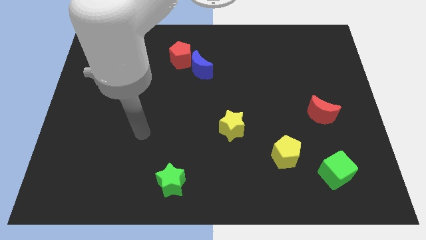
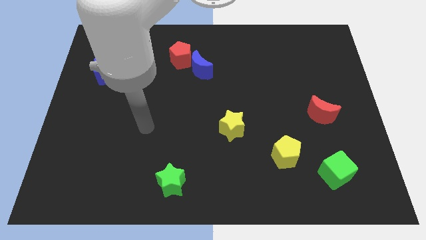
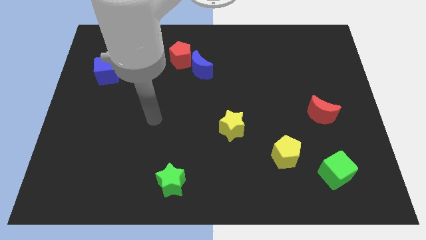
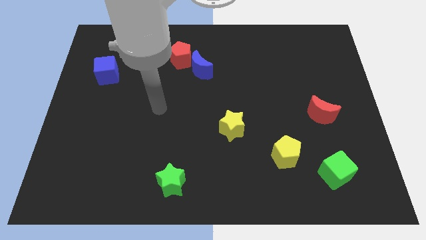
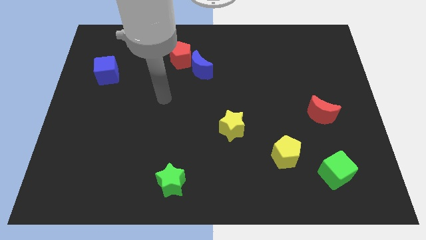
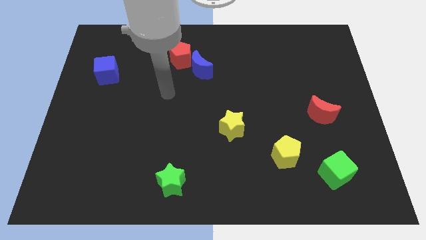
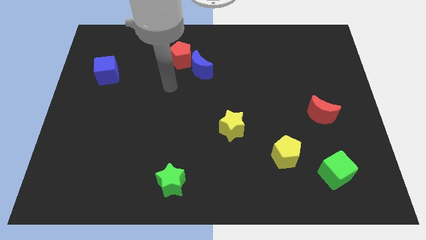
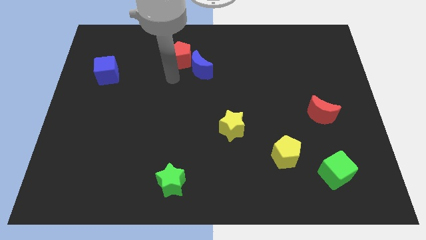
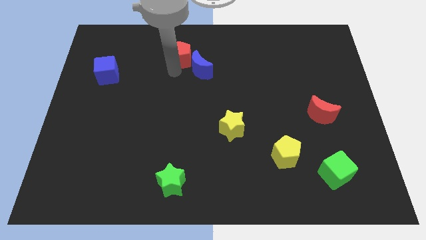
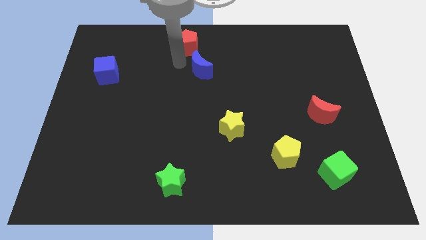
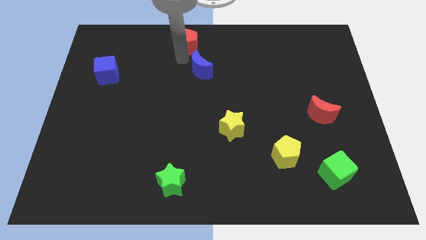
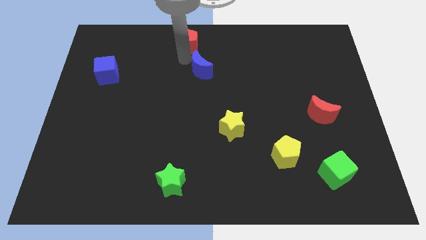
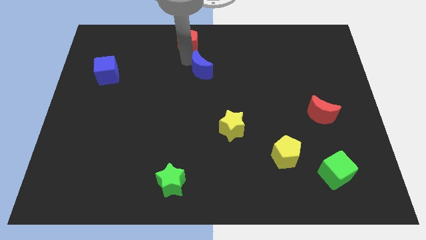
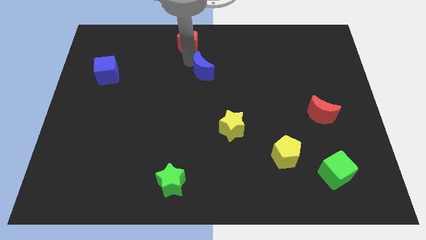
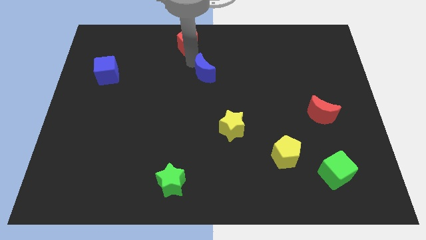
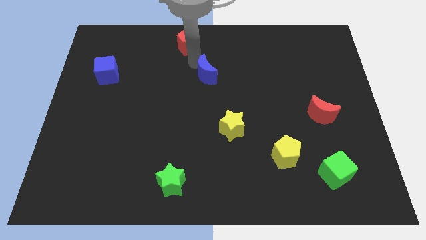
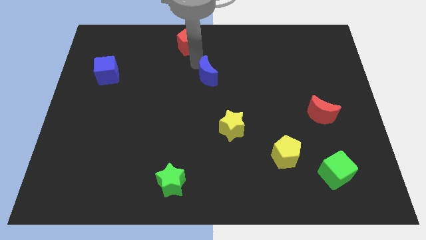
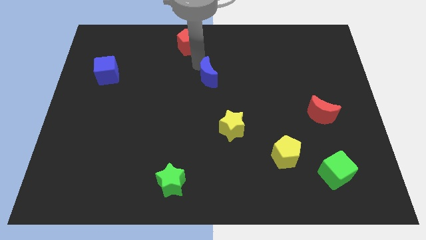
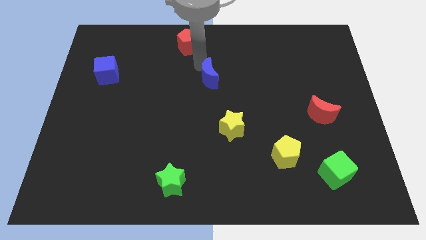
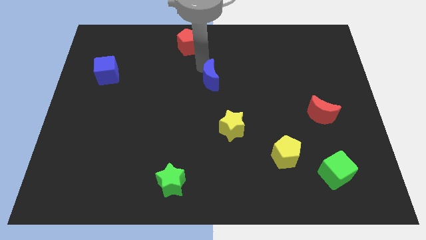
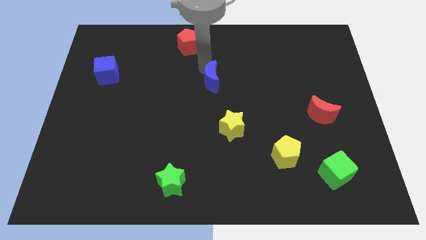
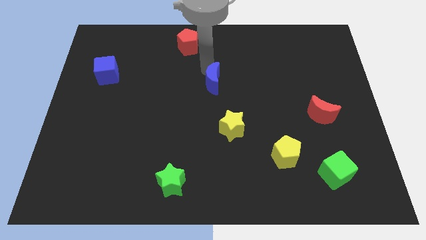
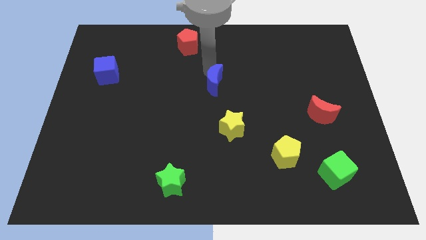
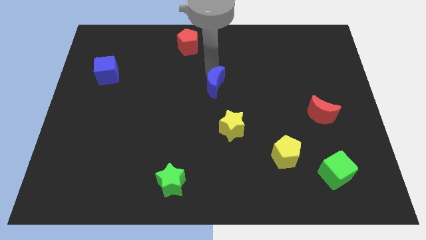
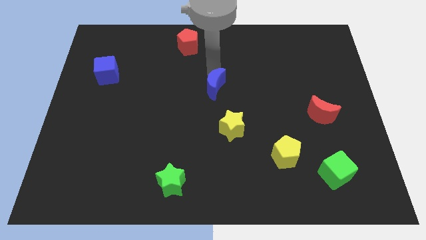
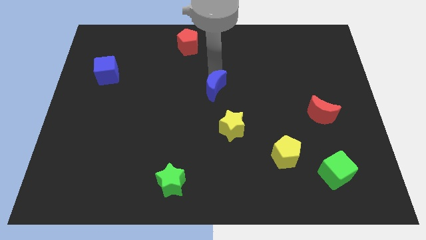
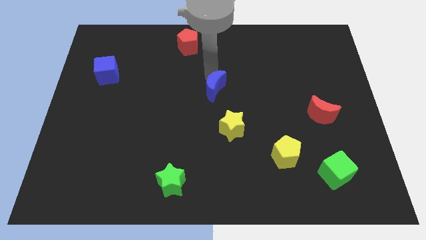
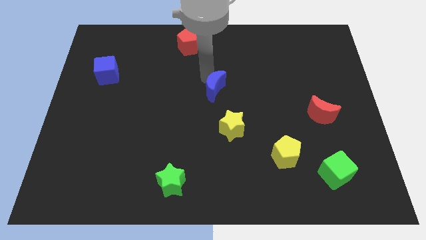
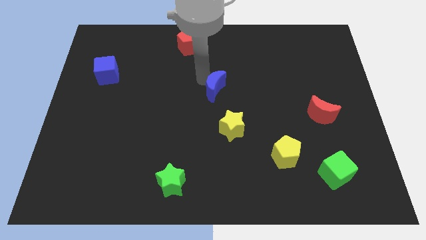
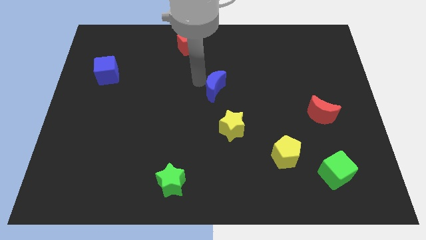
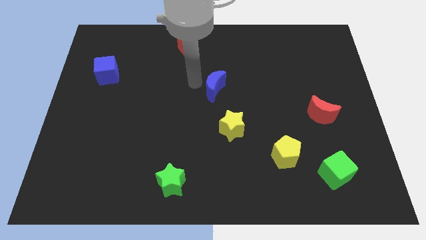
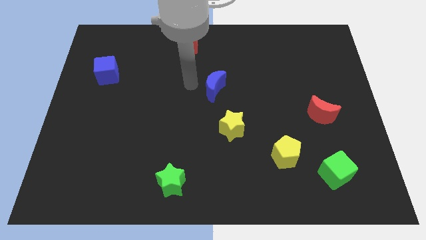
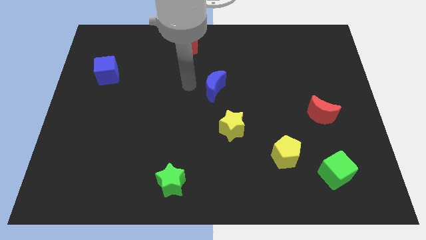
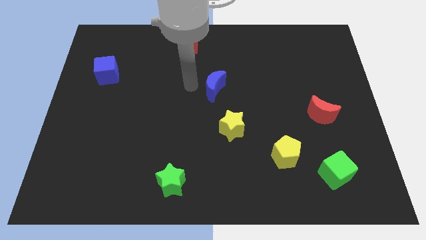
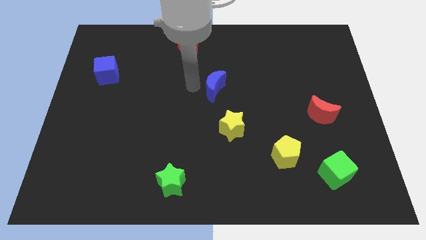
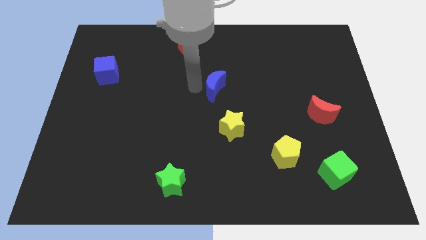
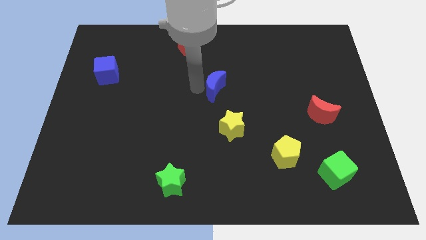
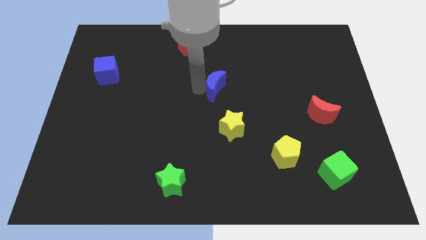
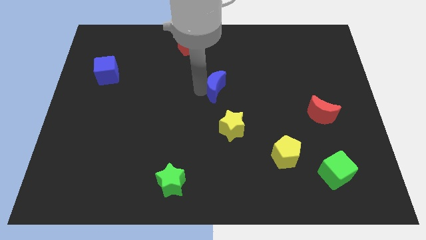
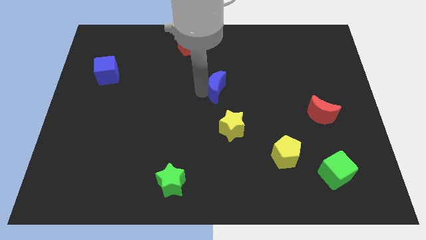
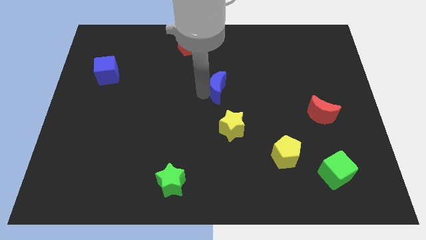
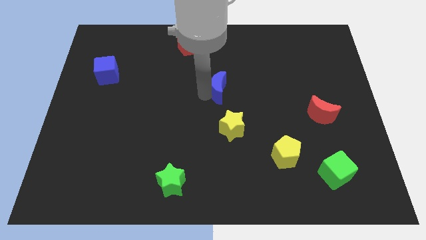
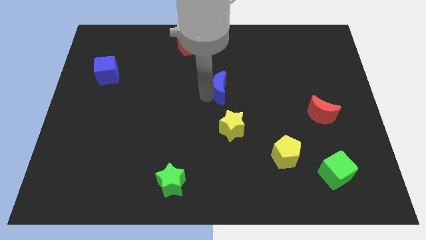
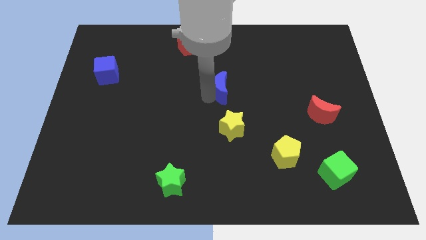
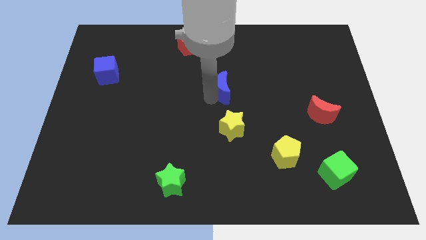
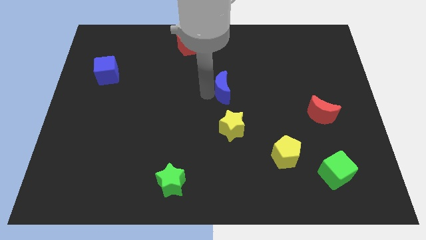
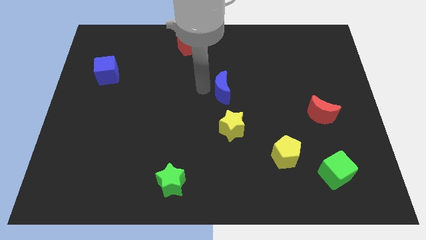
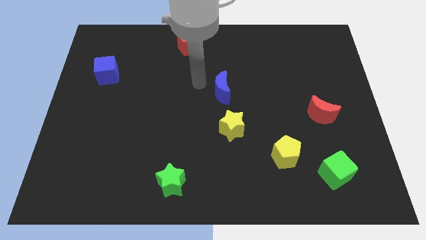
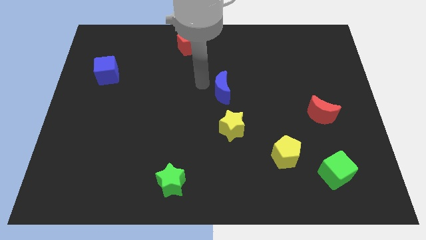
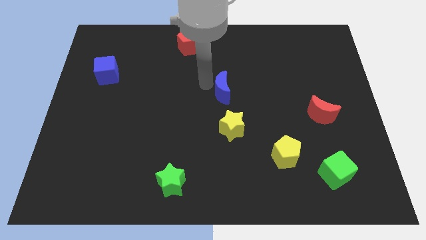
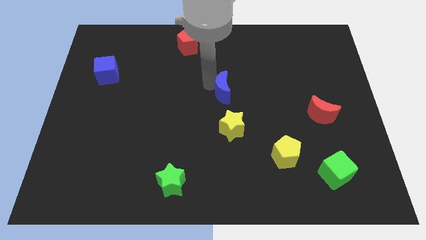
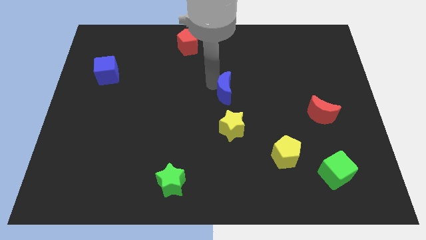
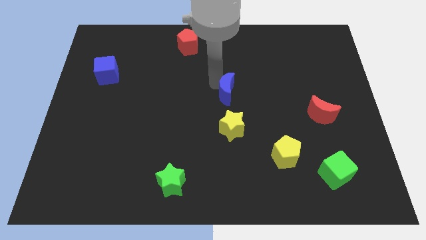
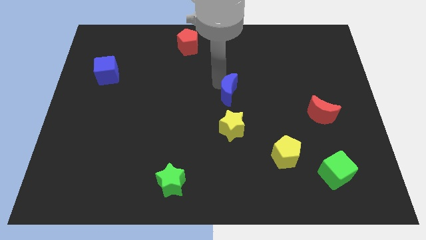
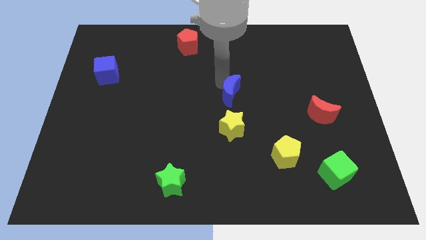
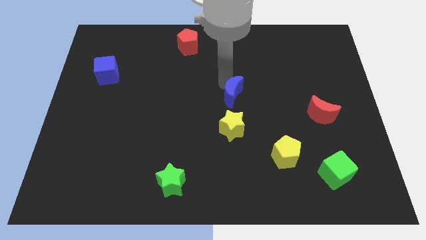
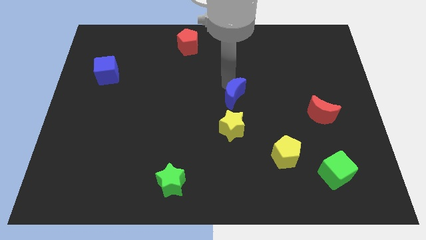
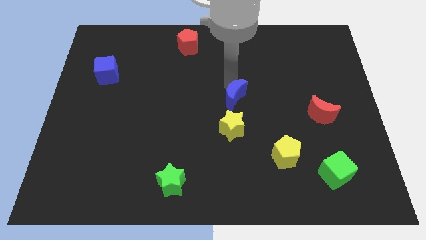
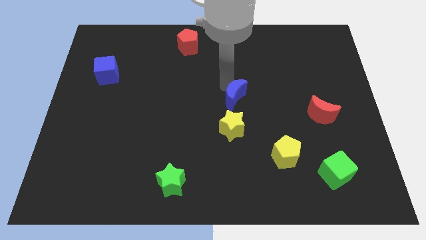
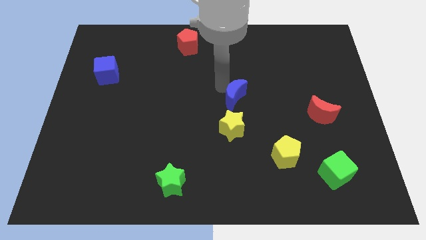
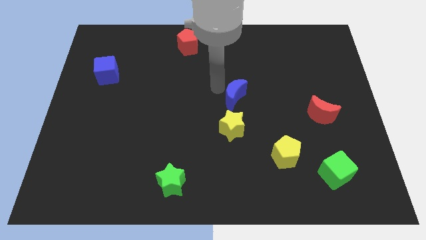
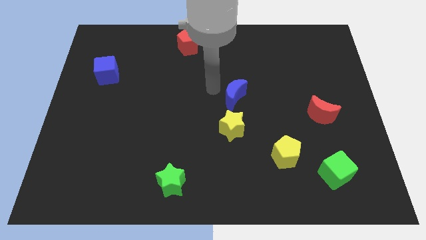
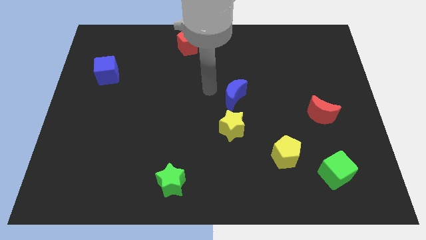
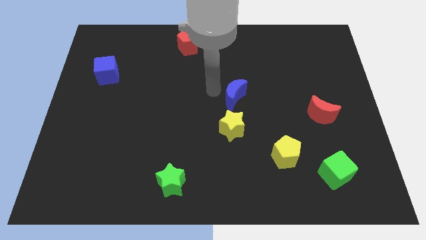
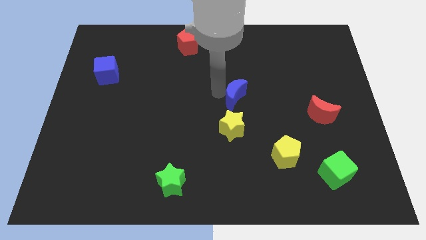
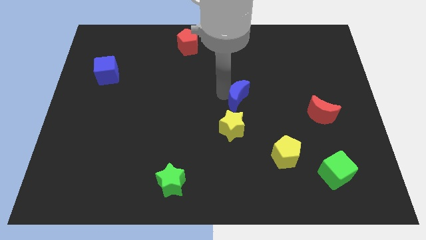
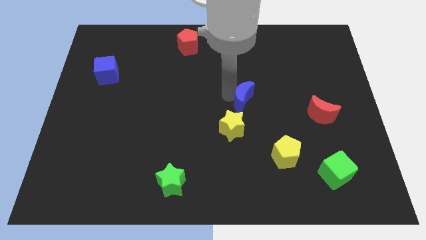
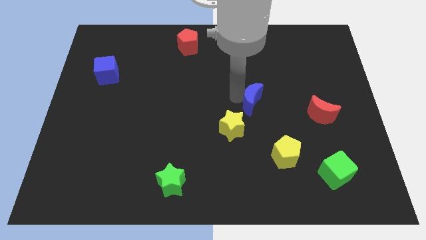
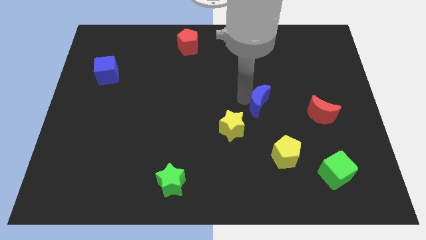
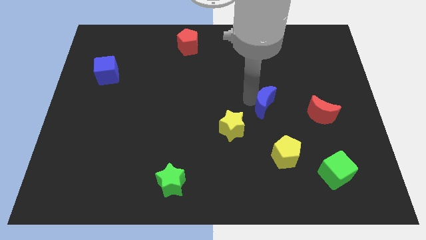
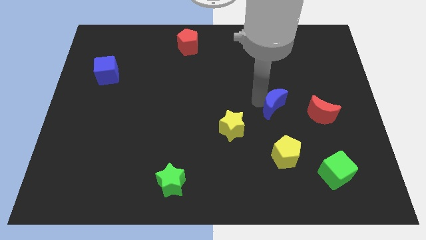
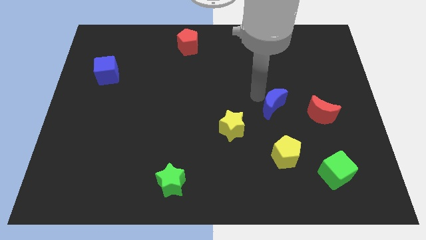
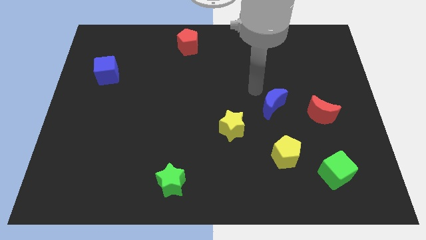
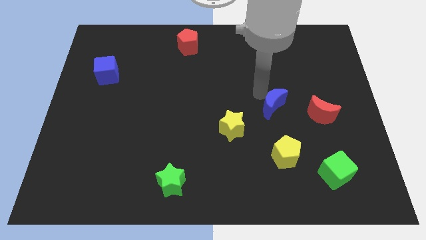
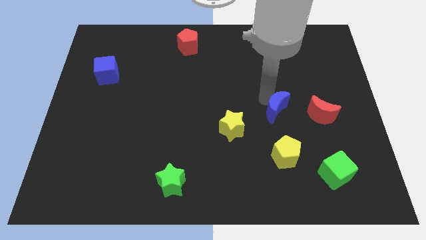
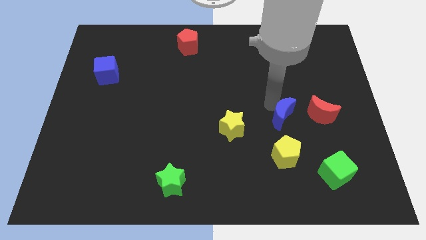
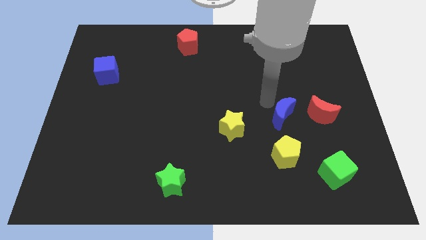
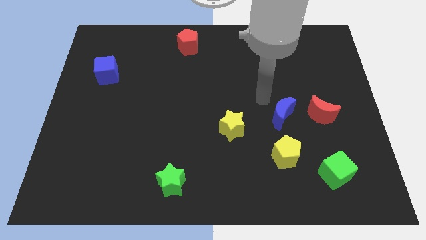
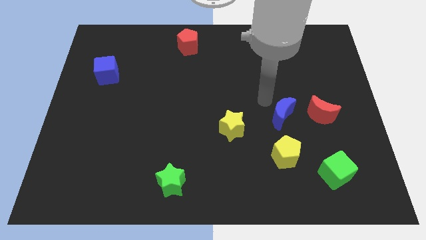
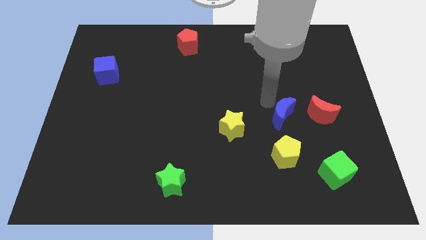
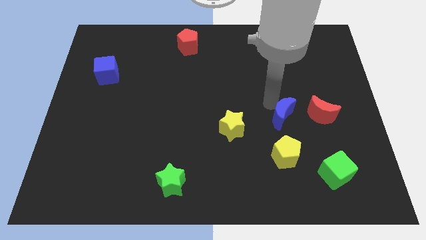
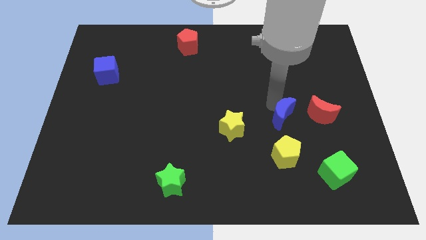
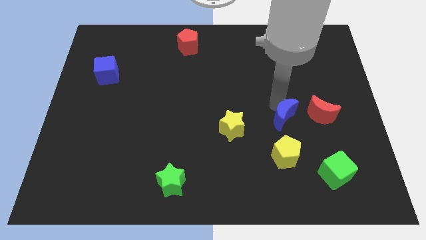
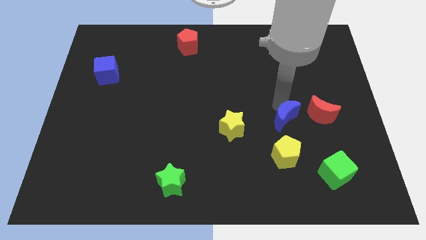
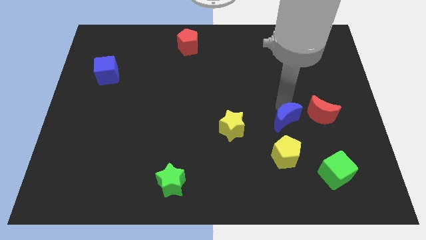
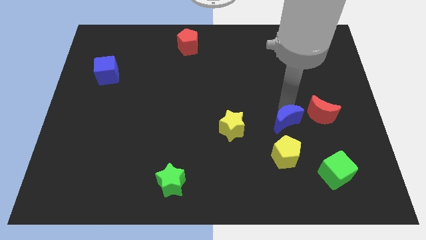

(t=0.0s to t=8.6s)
push the blue moon diagonally down and to the left of the red moon
